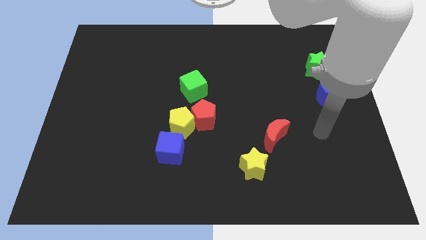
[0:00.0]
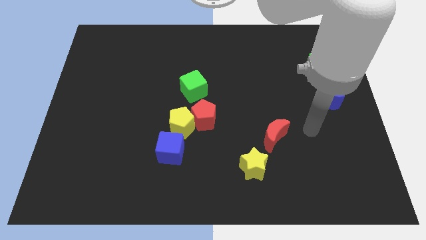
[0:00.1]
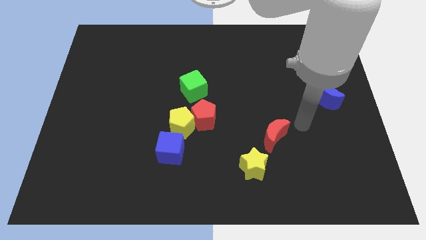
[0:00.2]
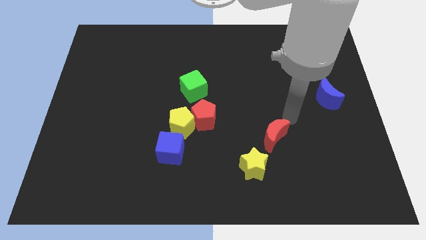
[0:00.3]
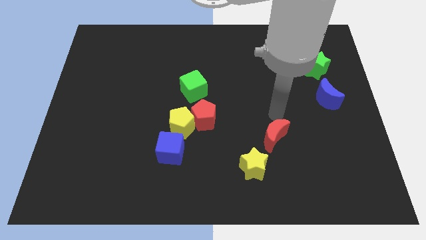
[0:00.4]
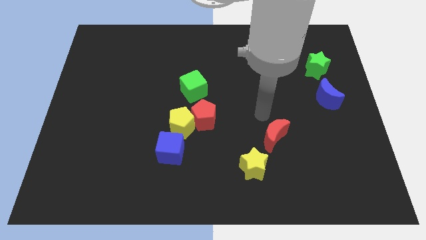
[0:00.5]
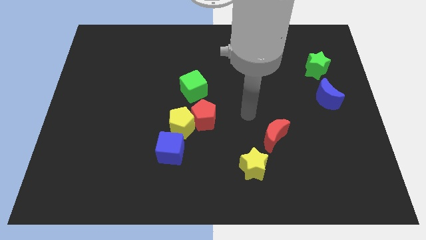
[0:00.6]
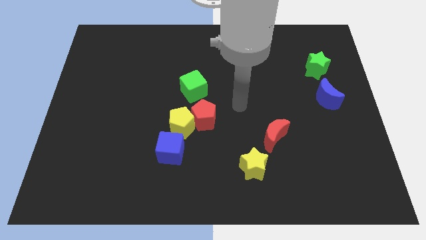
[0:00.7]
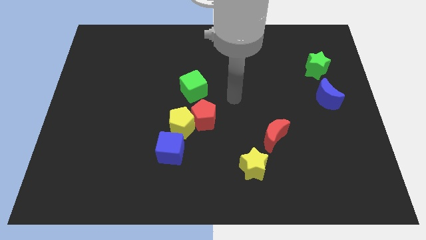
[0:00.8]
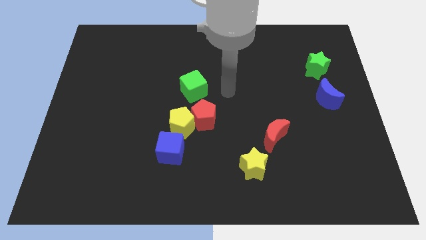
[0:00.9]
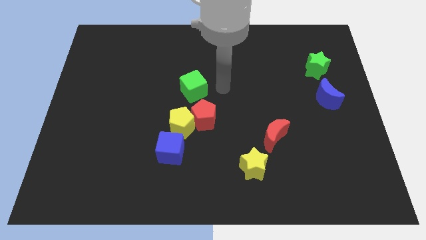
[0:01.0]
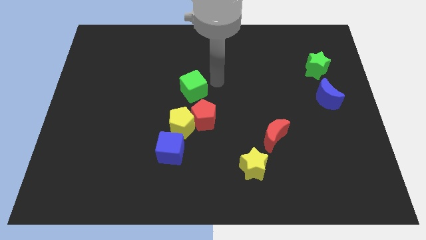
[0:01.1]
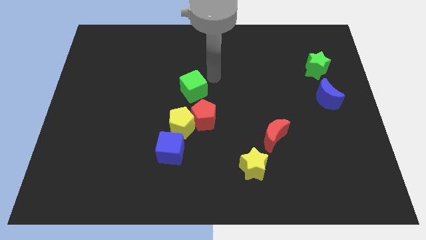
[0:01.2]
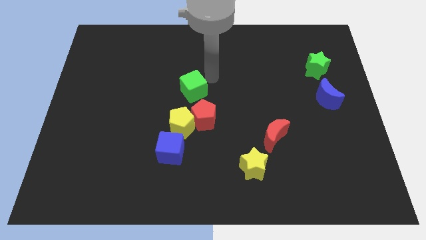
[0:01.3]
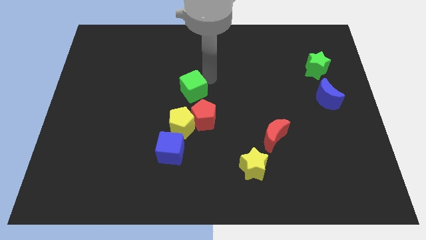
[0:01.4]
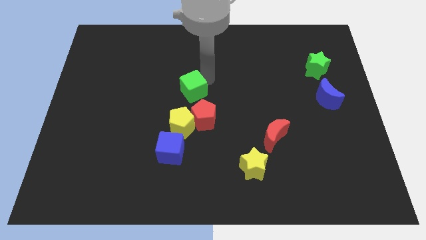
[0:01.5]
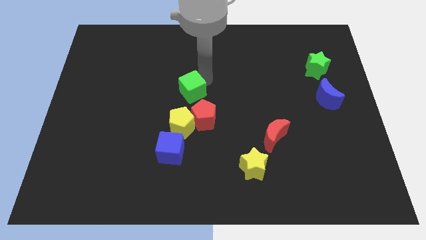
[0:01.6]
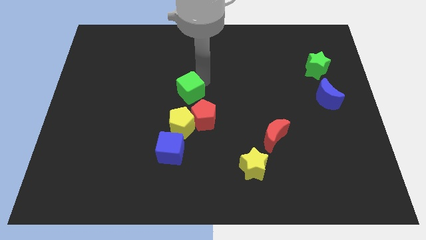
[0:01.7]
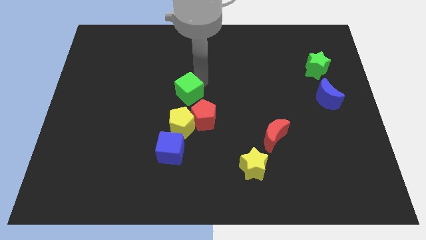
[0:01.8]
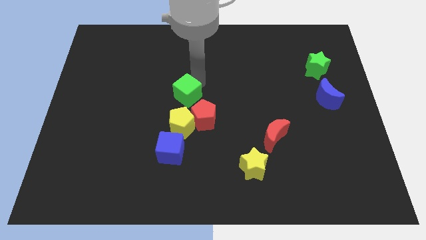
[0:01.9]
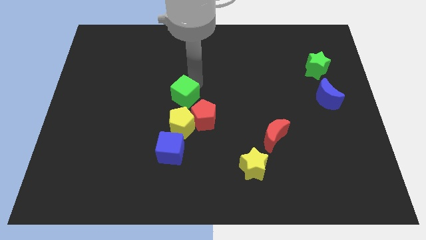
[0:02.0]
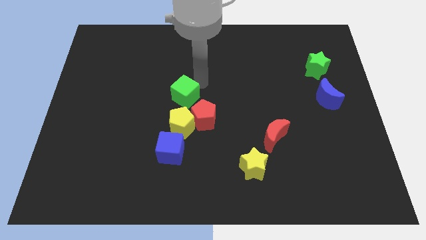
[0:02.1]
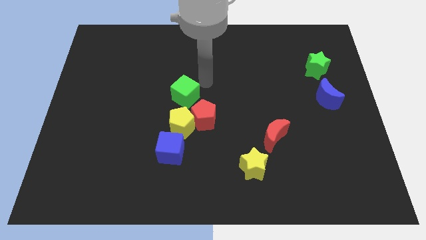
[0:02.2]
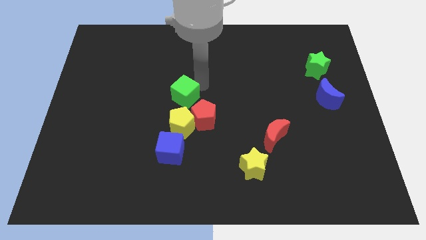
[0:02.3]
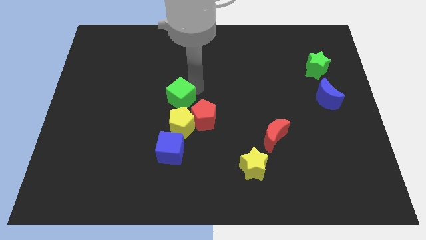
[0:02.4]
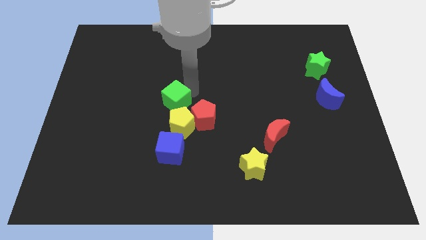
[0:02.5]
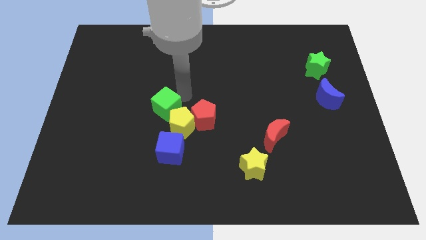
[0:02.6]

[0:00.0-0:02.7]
slide the green cube a little down and left diagonally

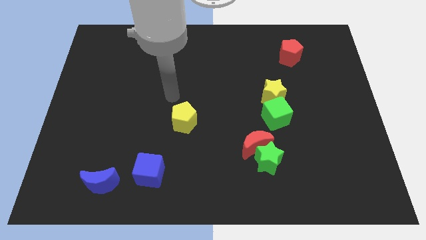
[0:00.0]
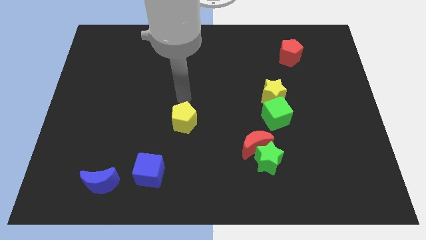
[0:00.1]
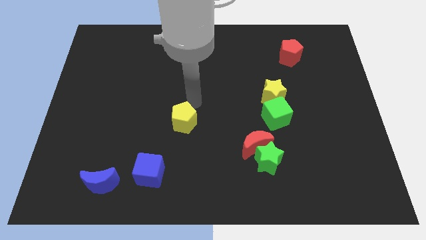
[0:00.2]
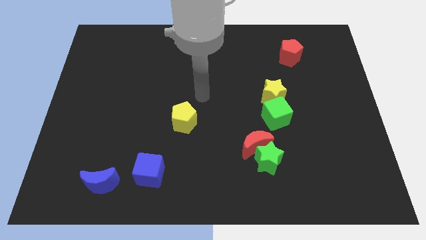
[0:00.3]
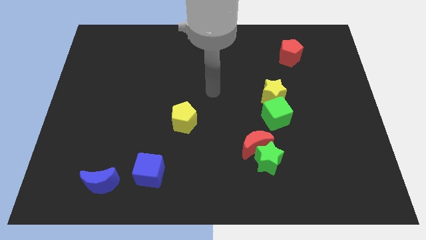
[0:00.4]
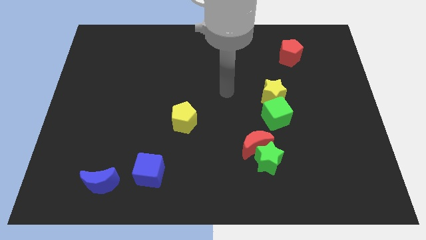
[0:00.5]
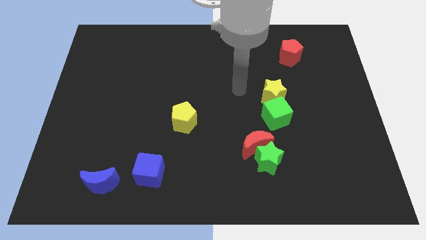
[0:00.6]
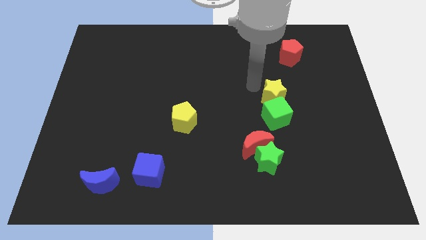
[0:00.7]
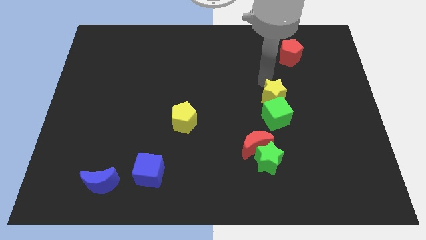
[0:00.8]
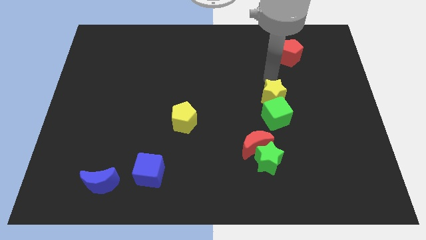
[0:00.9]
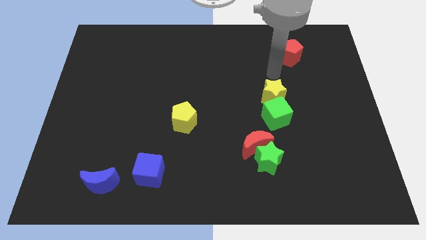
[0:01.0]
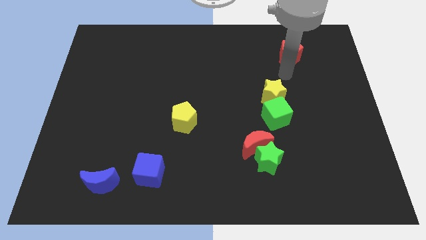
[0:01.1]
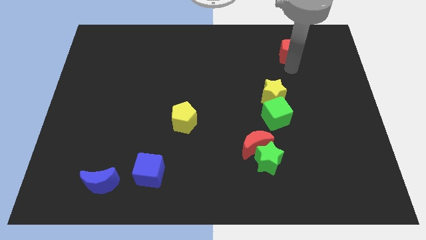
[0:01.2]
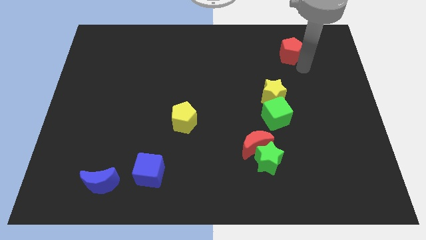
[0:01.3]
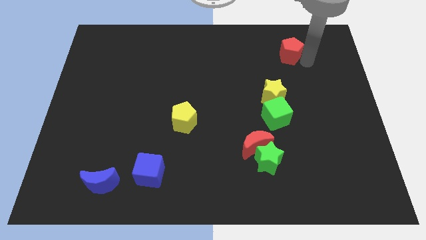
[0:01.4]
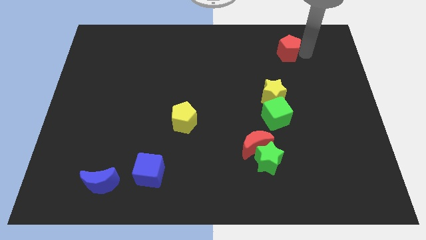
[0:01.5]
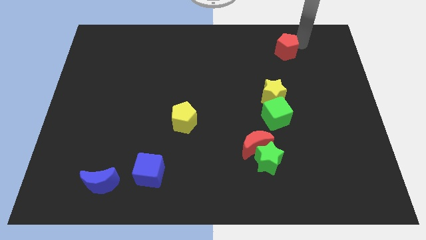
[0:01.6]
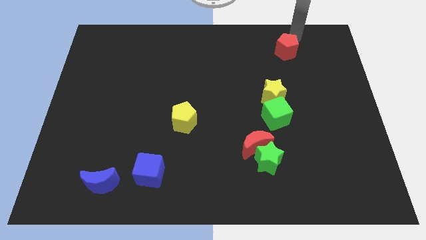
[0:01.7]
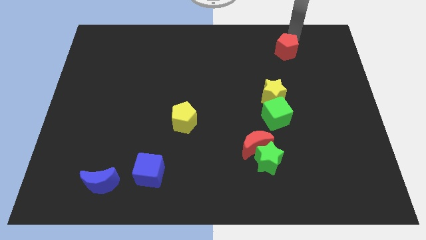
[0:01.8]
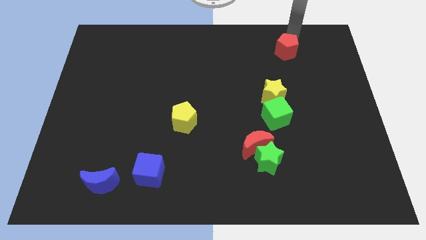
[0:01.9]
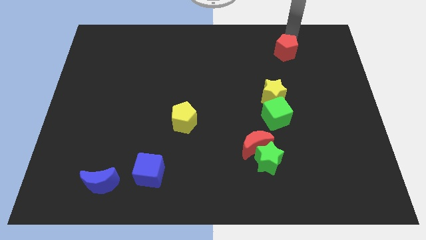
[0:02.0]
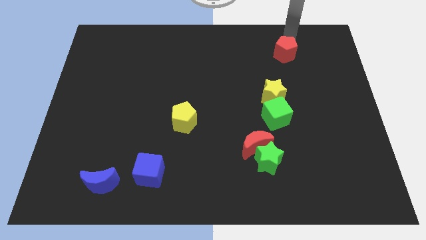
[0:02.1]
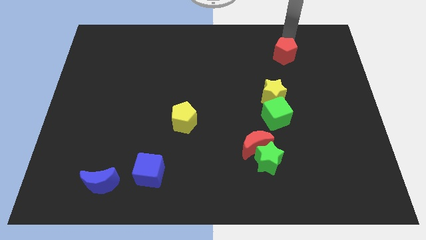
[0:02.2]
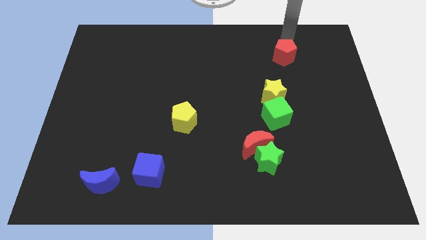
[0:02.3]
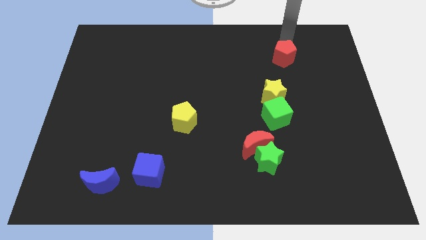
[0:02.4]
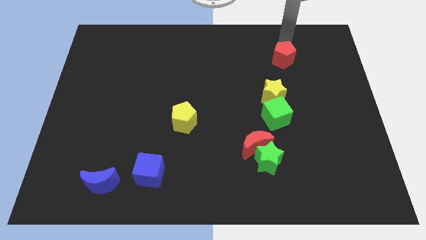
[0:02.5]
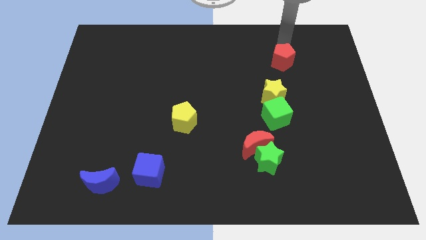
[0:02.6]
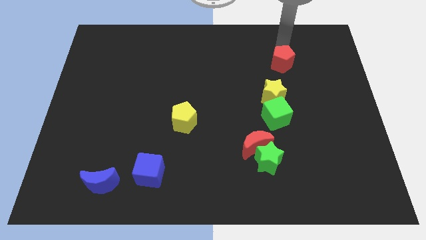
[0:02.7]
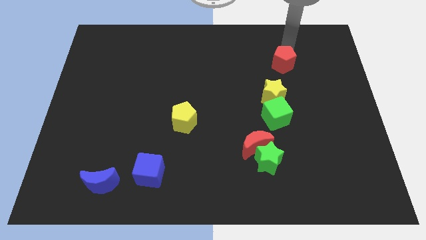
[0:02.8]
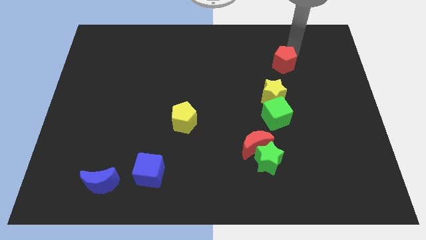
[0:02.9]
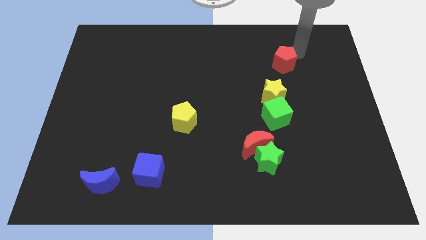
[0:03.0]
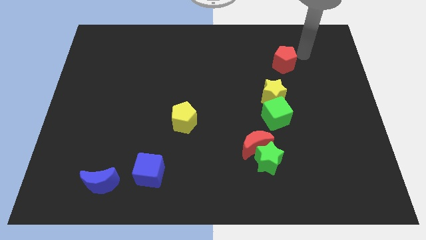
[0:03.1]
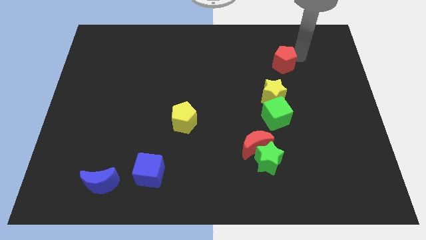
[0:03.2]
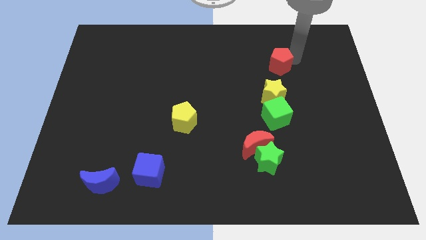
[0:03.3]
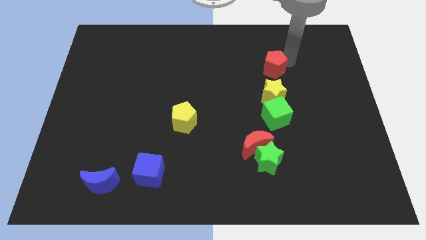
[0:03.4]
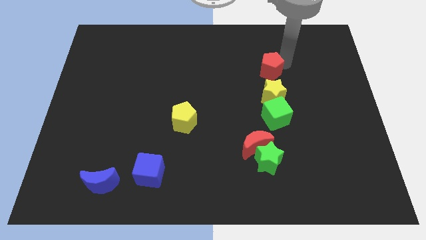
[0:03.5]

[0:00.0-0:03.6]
push the red pentagon down and left diagonally a little

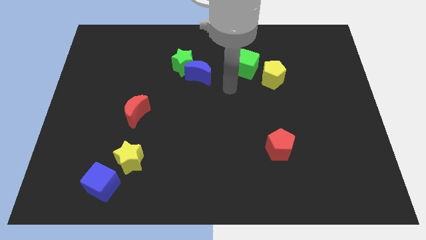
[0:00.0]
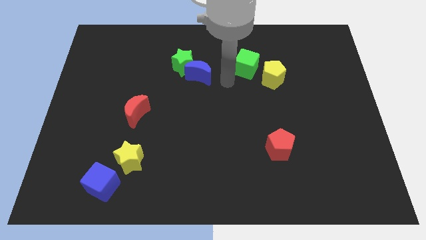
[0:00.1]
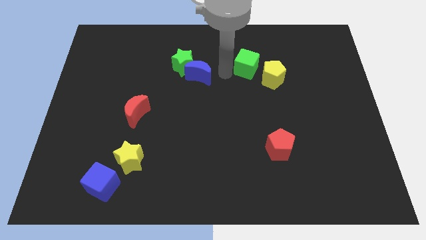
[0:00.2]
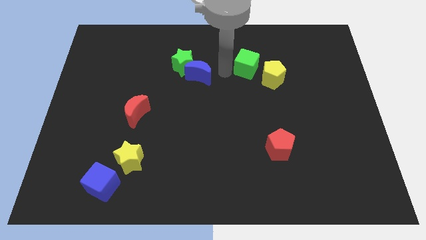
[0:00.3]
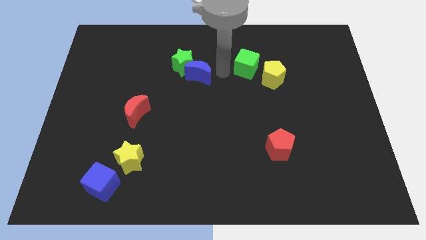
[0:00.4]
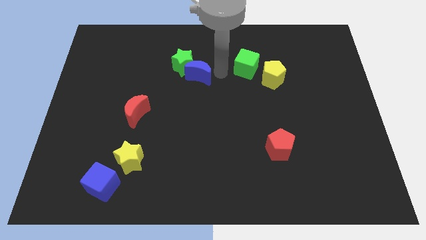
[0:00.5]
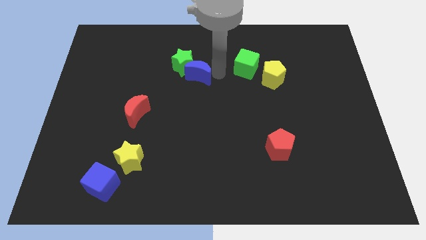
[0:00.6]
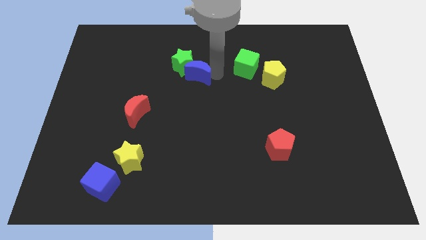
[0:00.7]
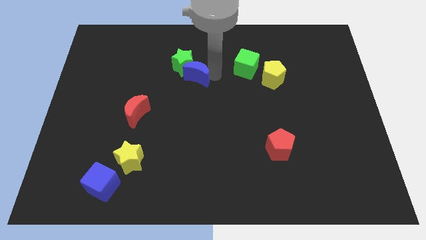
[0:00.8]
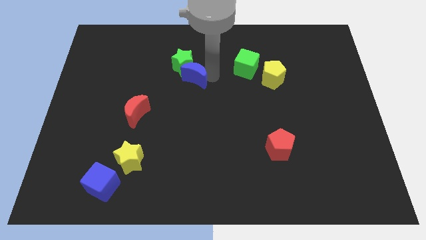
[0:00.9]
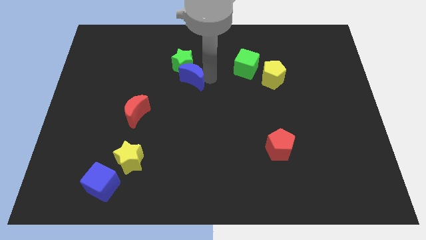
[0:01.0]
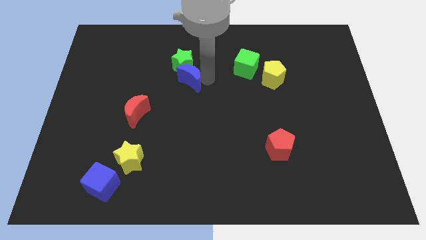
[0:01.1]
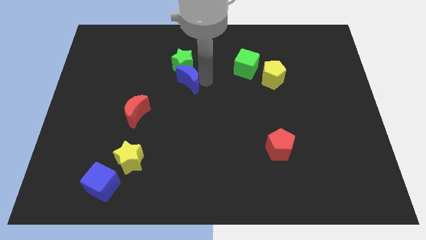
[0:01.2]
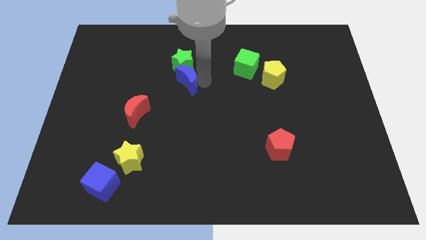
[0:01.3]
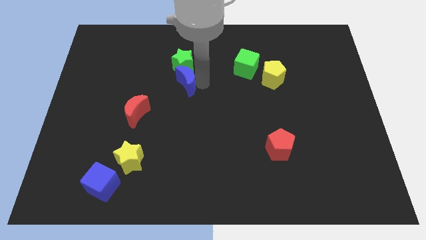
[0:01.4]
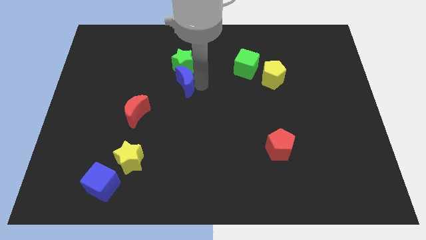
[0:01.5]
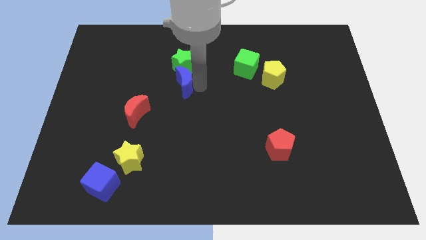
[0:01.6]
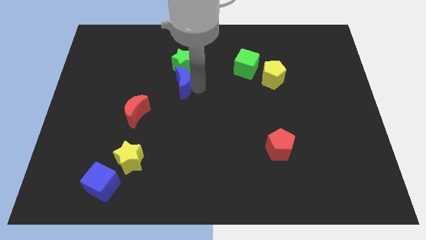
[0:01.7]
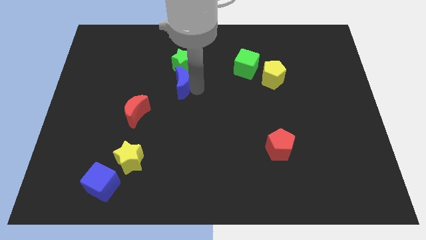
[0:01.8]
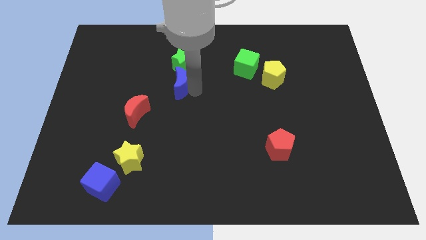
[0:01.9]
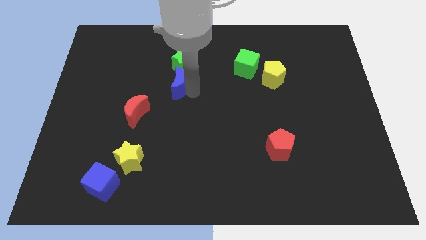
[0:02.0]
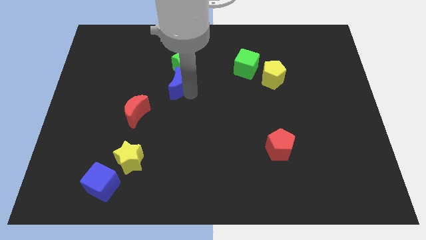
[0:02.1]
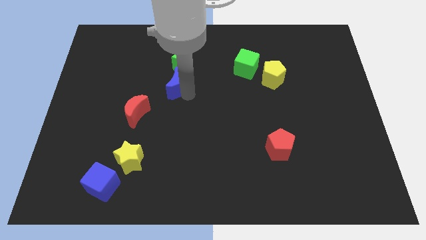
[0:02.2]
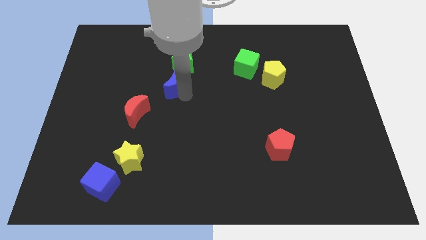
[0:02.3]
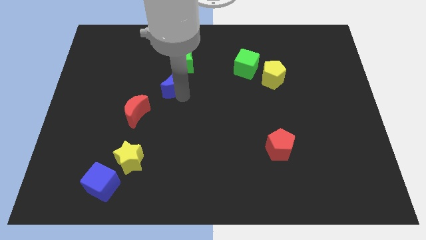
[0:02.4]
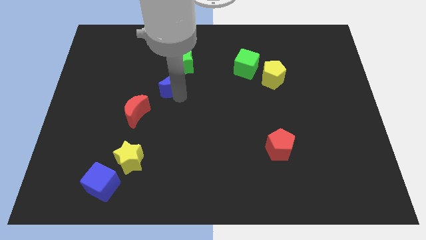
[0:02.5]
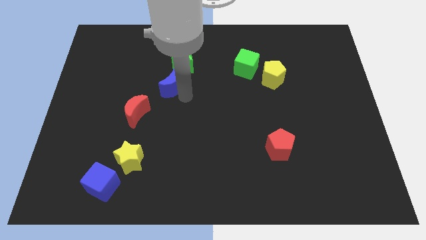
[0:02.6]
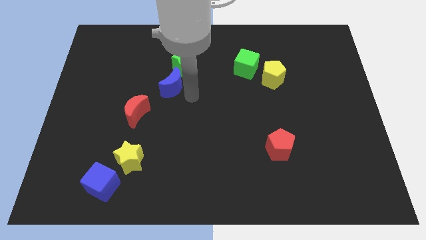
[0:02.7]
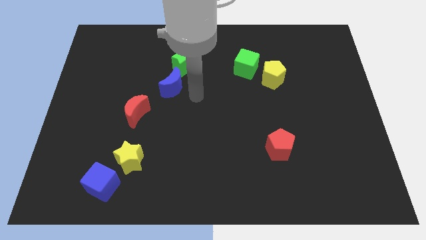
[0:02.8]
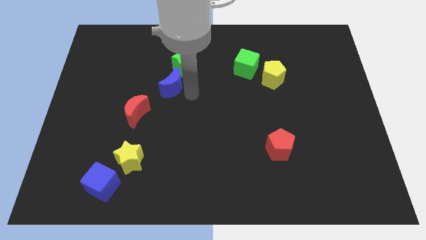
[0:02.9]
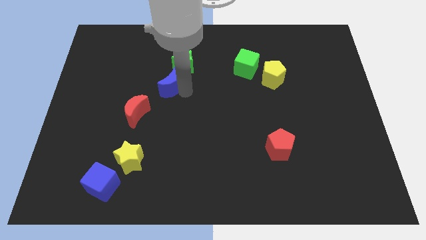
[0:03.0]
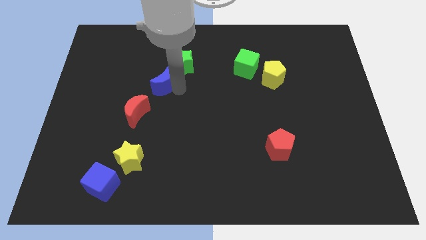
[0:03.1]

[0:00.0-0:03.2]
push the blue moon to the left a little bit
